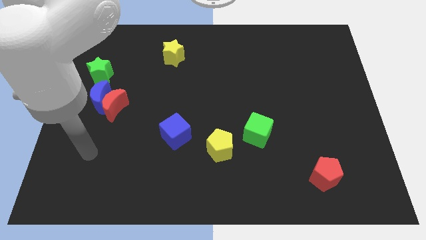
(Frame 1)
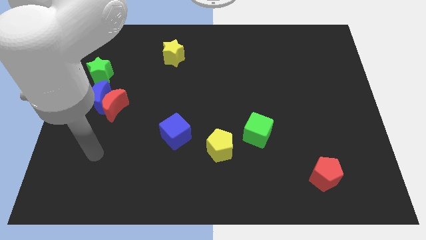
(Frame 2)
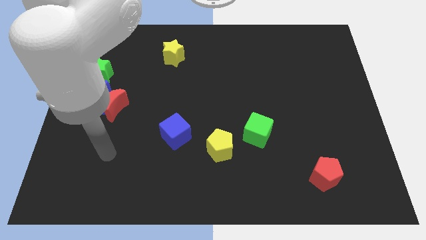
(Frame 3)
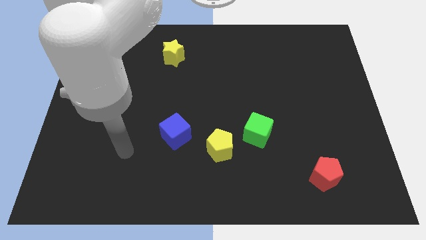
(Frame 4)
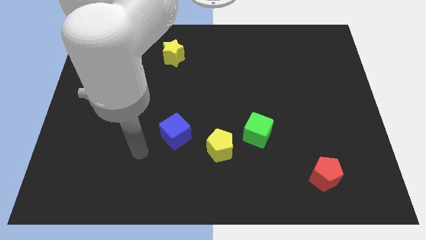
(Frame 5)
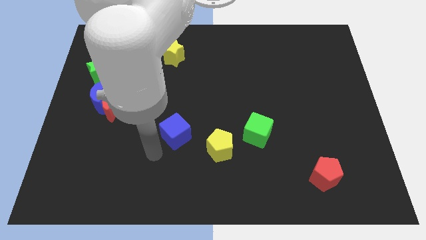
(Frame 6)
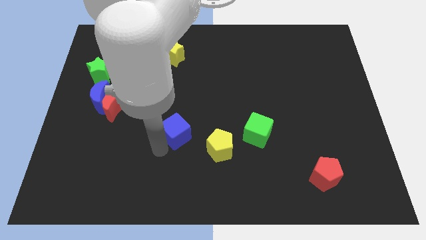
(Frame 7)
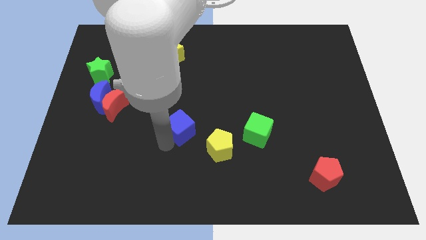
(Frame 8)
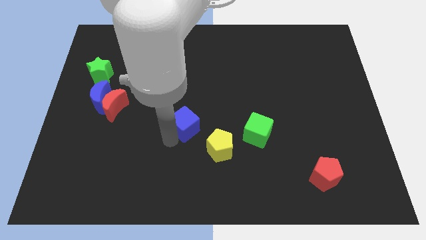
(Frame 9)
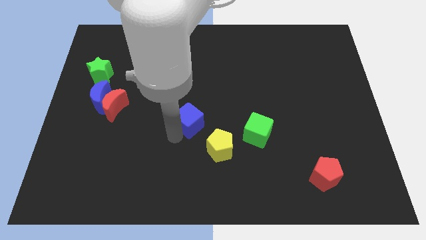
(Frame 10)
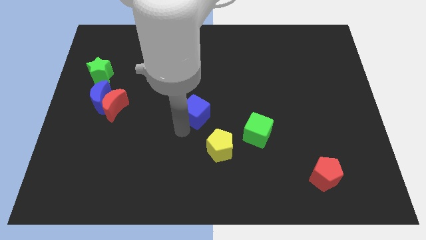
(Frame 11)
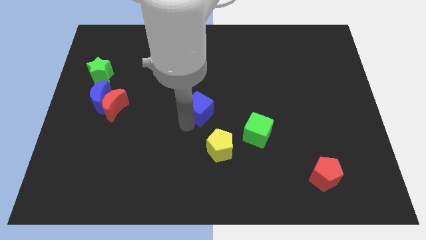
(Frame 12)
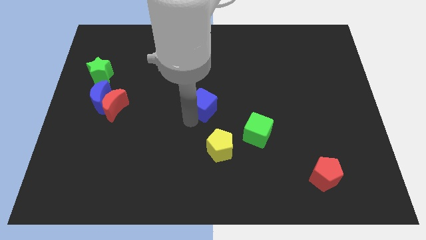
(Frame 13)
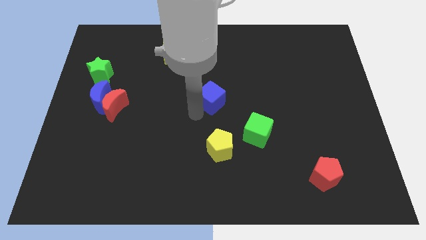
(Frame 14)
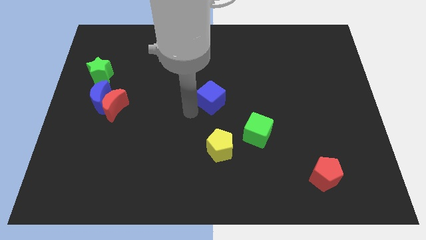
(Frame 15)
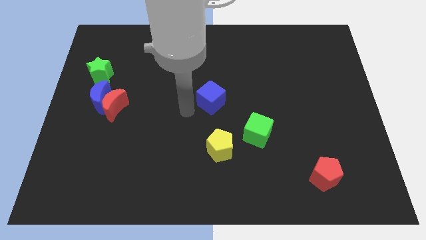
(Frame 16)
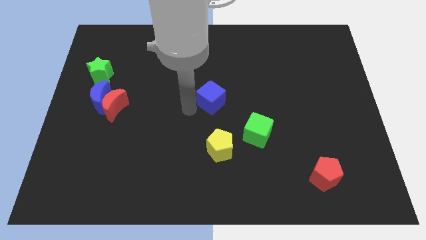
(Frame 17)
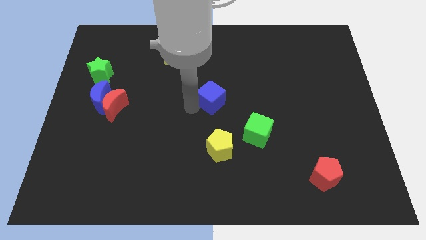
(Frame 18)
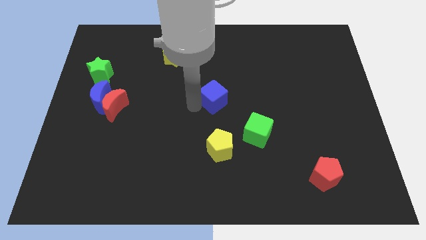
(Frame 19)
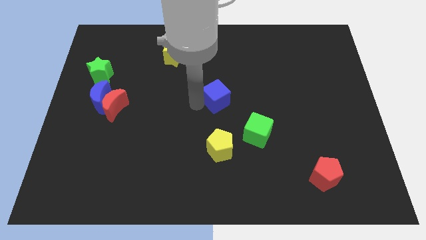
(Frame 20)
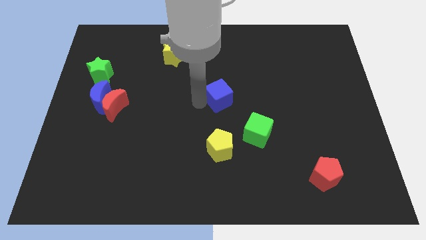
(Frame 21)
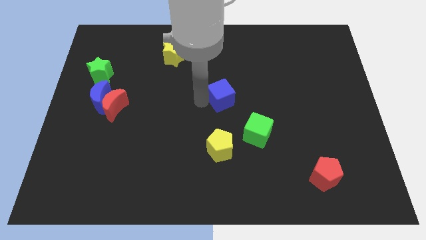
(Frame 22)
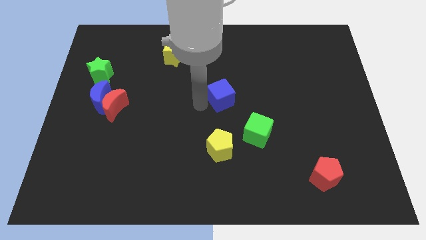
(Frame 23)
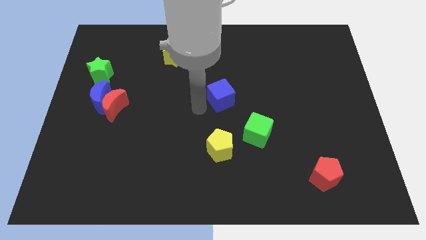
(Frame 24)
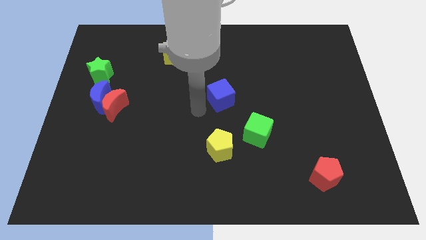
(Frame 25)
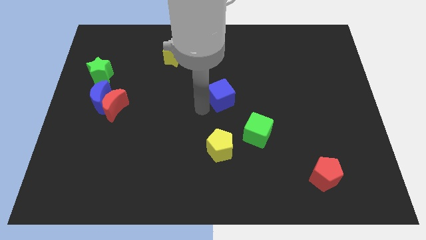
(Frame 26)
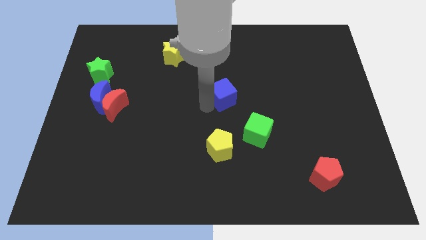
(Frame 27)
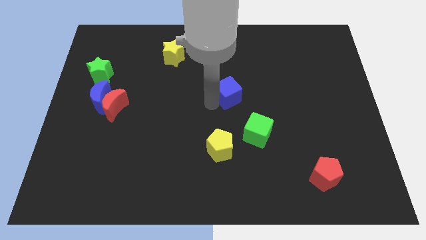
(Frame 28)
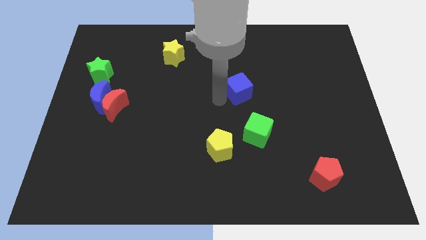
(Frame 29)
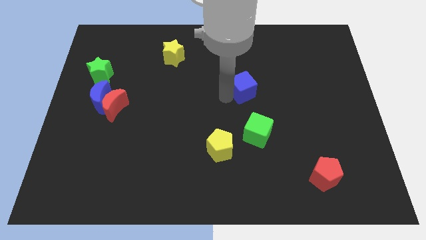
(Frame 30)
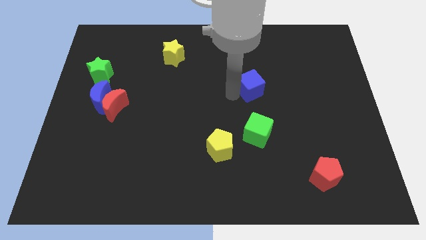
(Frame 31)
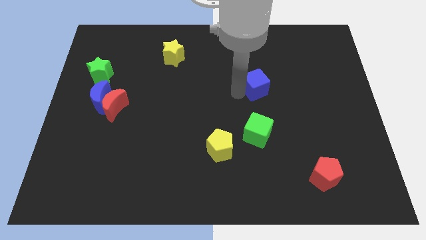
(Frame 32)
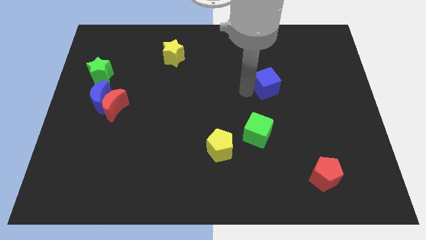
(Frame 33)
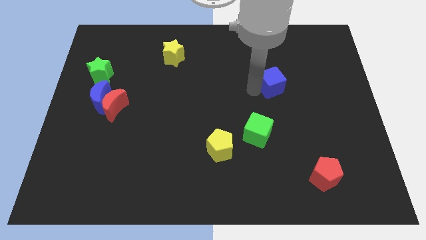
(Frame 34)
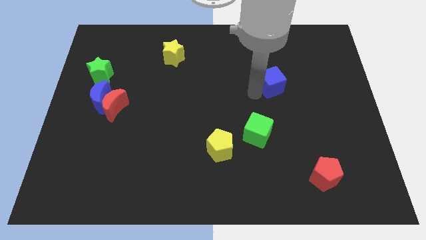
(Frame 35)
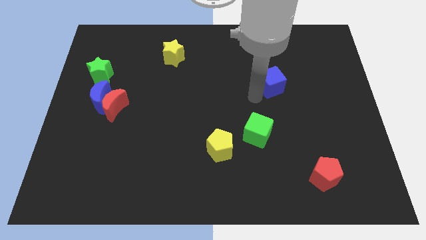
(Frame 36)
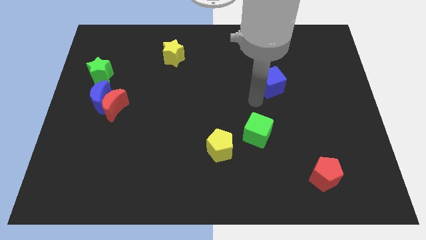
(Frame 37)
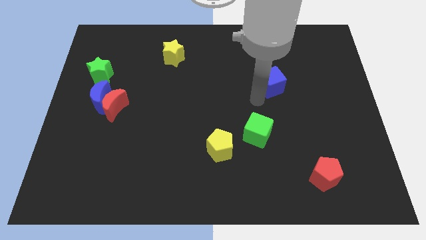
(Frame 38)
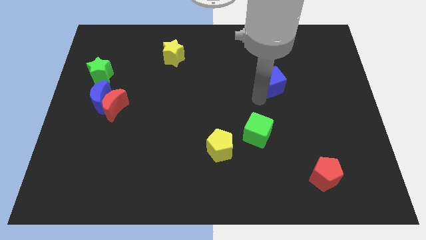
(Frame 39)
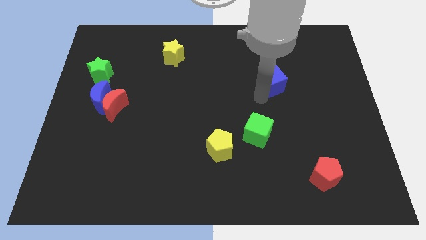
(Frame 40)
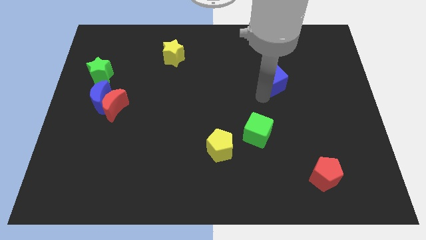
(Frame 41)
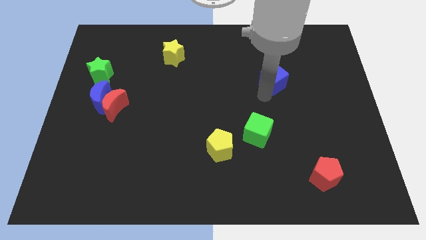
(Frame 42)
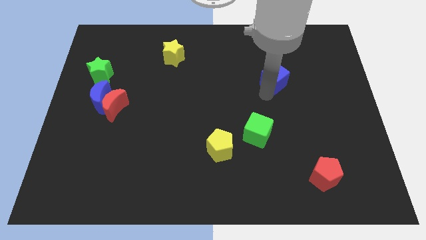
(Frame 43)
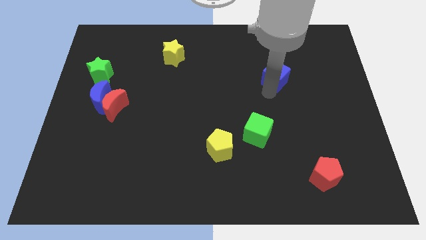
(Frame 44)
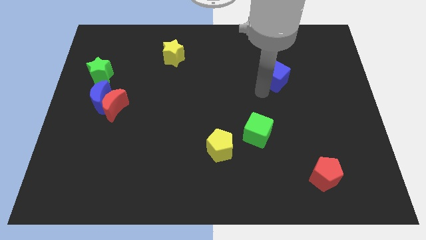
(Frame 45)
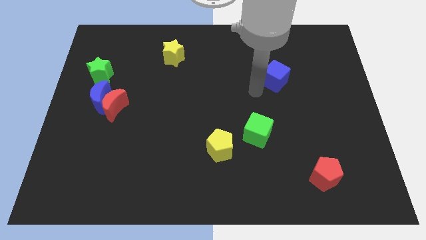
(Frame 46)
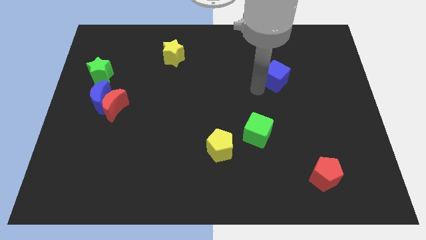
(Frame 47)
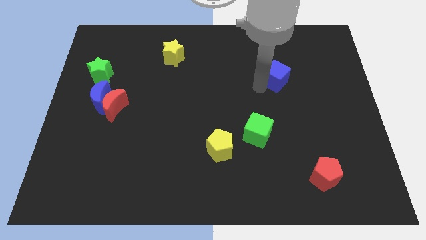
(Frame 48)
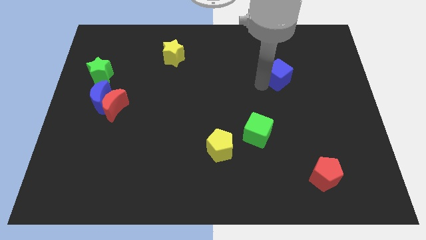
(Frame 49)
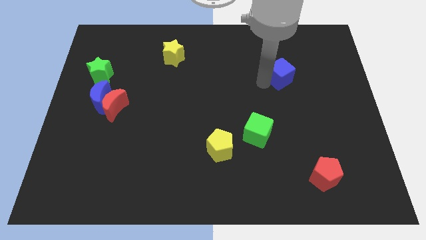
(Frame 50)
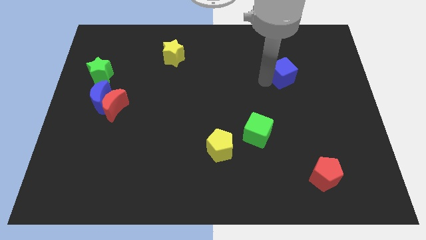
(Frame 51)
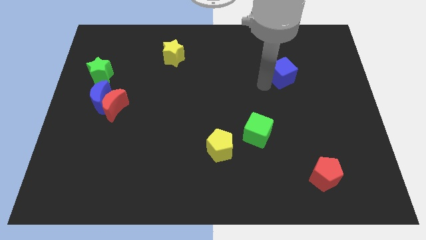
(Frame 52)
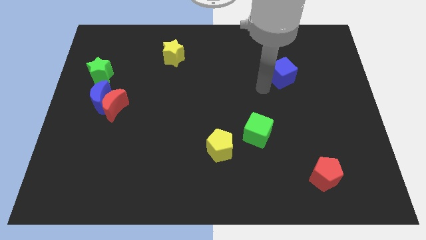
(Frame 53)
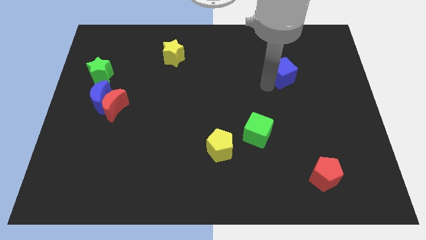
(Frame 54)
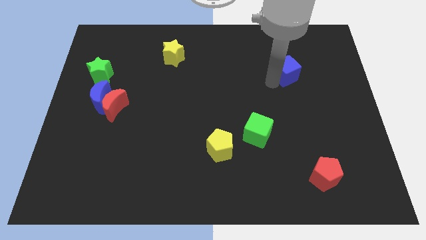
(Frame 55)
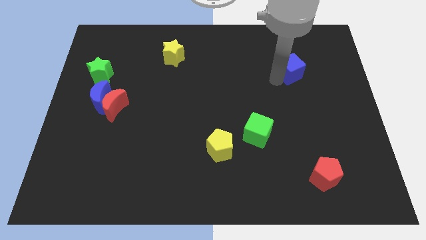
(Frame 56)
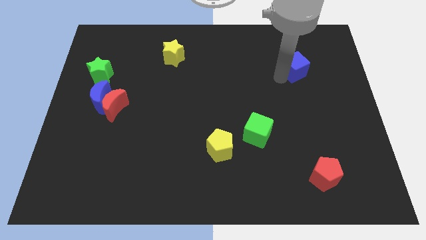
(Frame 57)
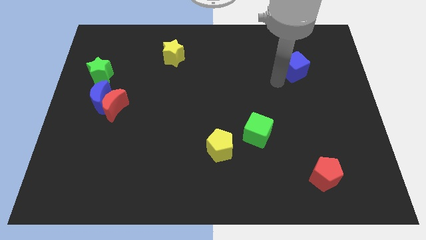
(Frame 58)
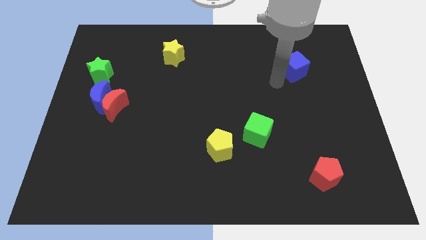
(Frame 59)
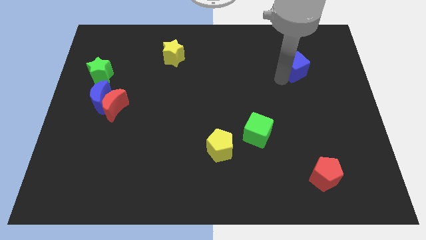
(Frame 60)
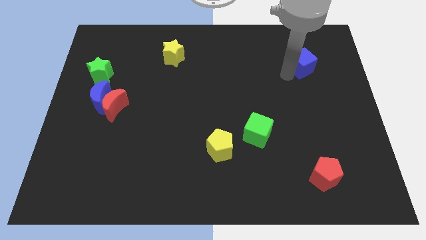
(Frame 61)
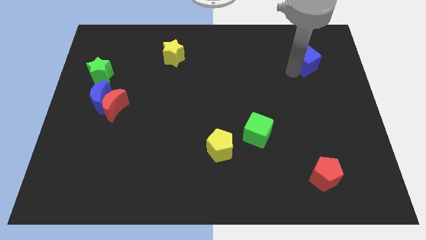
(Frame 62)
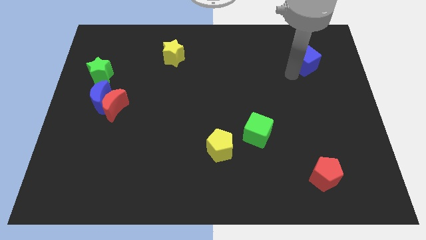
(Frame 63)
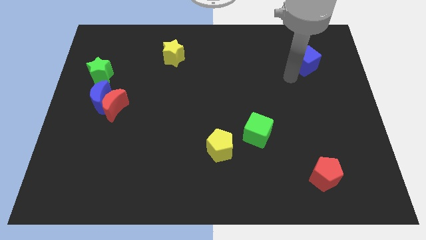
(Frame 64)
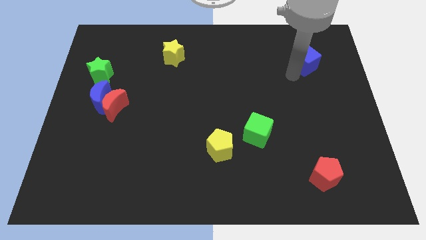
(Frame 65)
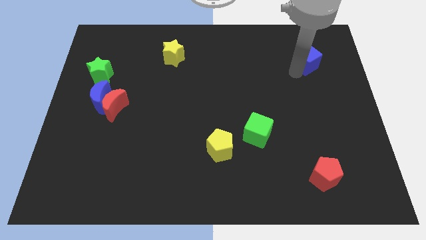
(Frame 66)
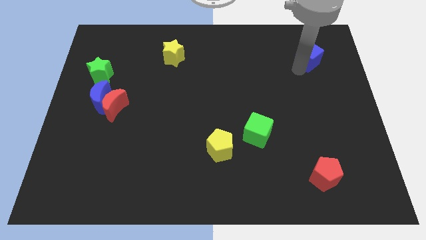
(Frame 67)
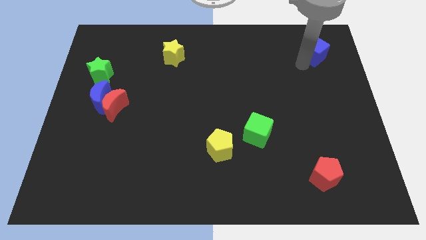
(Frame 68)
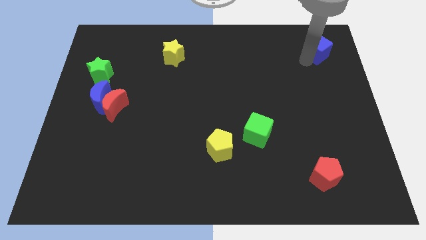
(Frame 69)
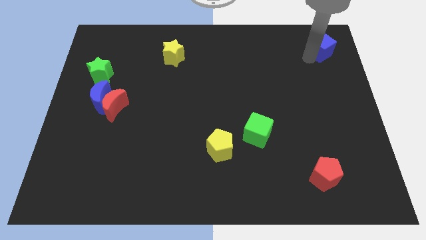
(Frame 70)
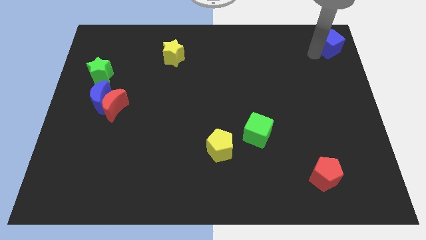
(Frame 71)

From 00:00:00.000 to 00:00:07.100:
move the blue cube to the upper right corner

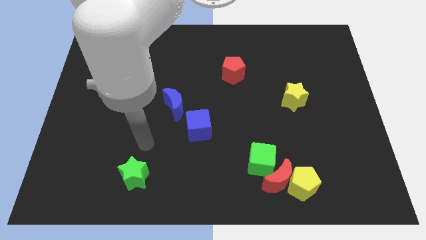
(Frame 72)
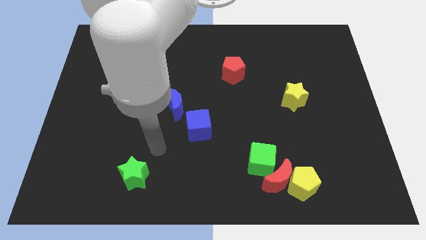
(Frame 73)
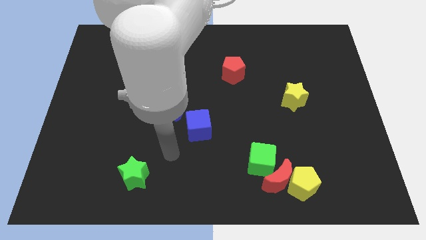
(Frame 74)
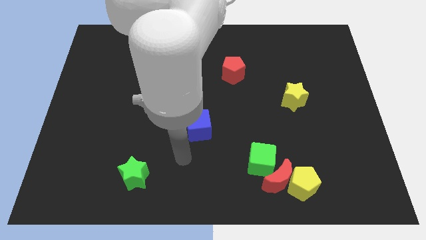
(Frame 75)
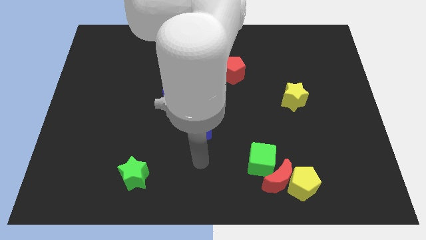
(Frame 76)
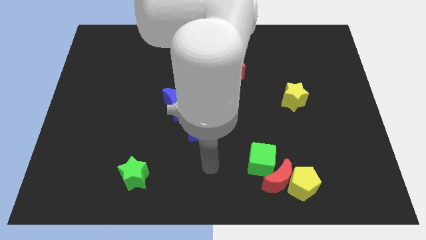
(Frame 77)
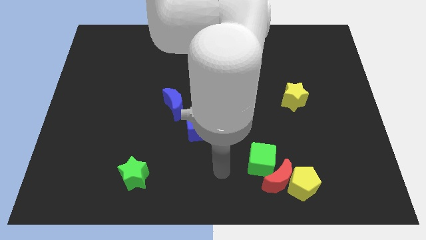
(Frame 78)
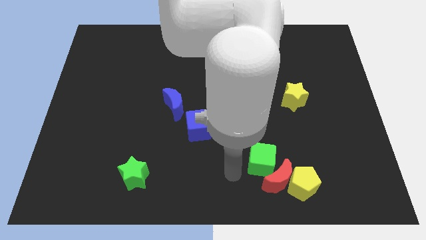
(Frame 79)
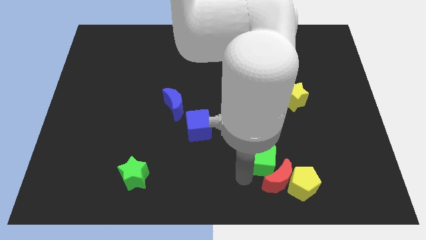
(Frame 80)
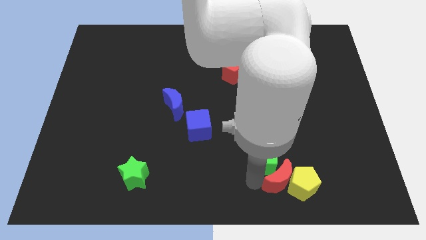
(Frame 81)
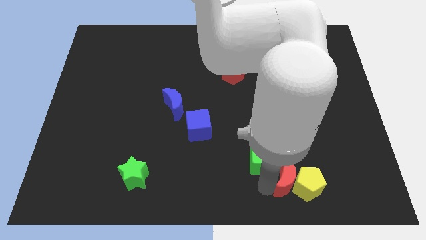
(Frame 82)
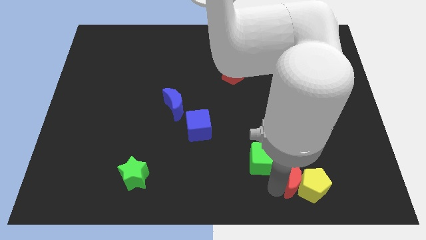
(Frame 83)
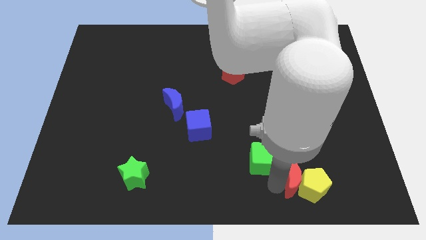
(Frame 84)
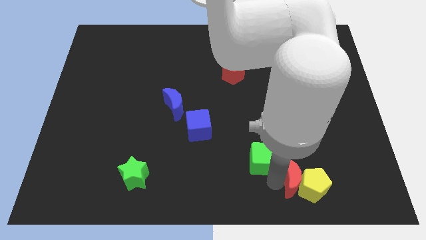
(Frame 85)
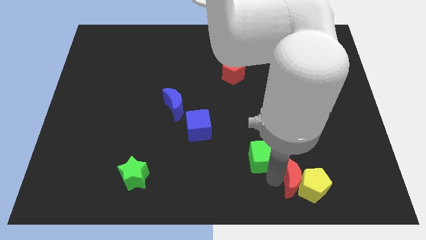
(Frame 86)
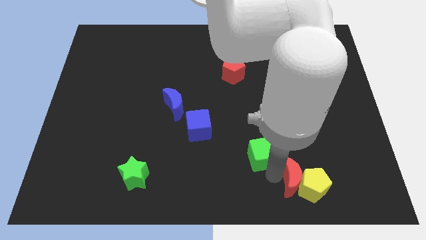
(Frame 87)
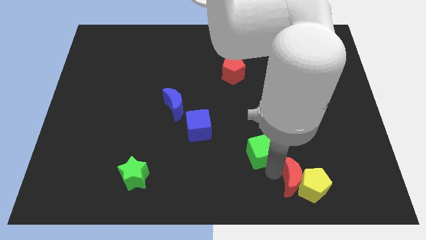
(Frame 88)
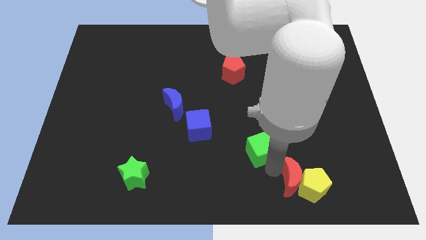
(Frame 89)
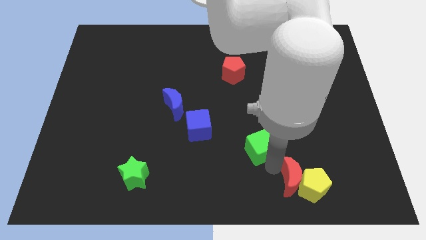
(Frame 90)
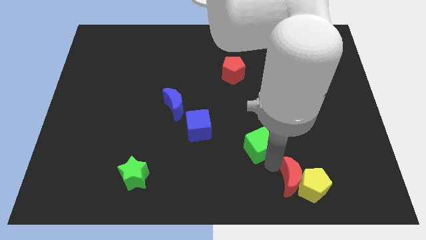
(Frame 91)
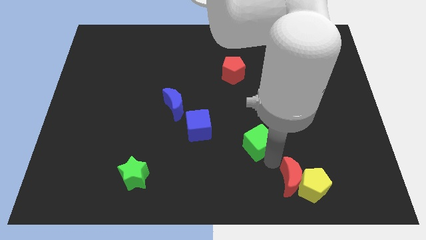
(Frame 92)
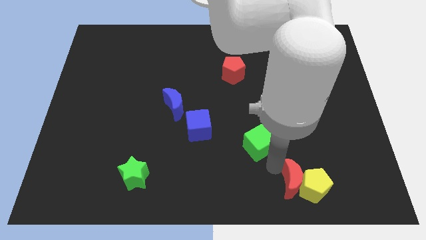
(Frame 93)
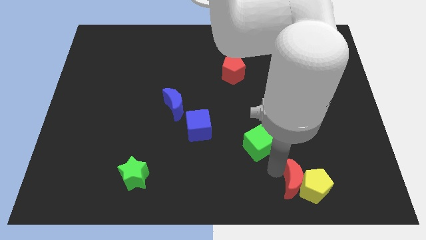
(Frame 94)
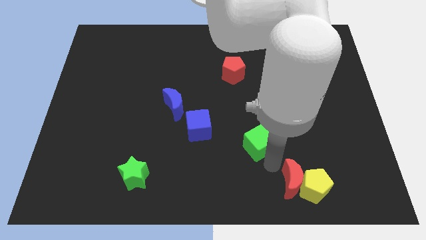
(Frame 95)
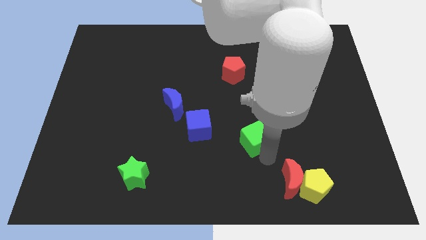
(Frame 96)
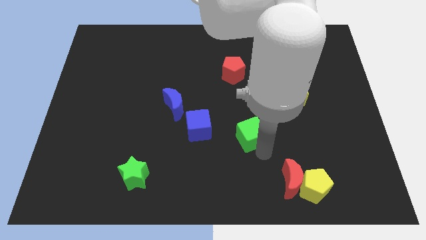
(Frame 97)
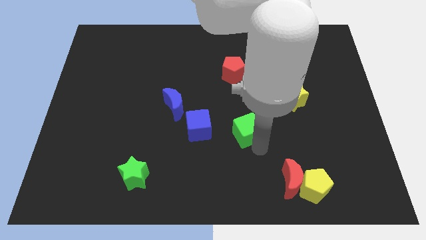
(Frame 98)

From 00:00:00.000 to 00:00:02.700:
push the green cube to the center of the board
